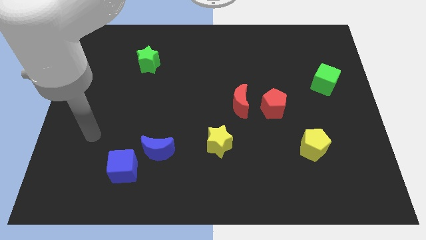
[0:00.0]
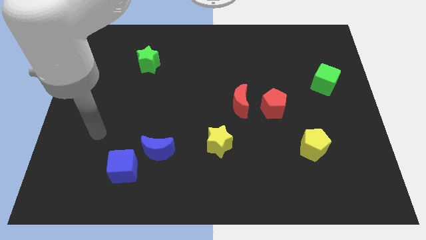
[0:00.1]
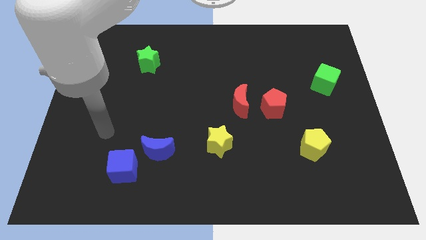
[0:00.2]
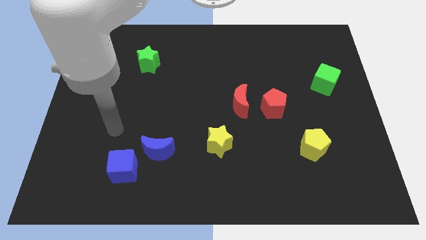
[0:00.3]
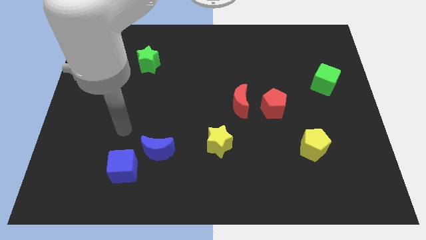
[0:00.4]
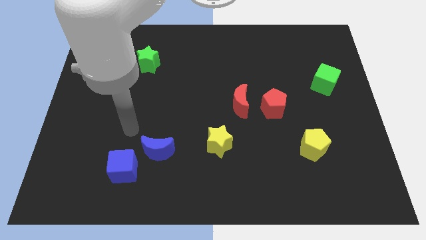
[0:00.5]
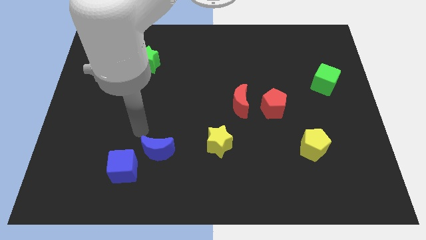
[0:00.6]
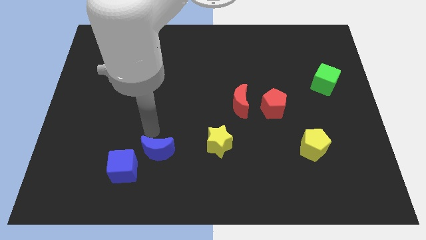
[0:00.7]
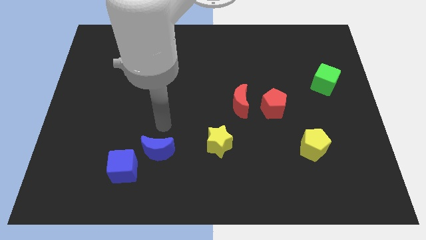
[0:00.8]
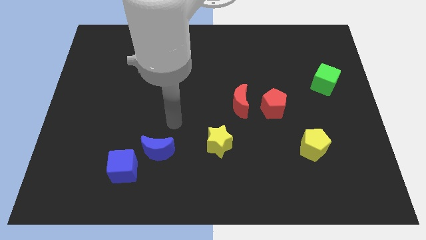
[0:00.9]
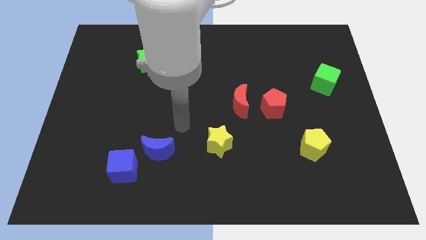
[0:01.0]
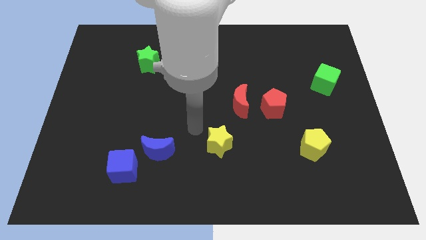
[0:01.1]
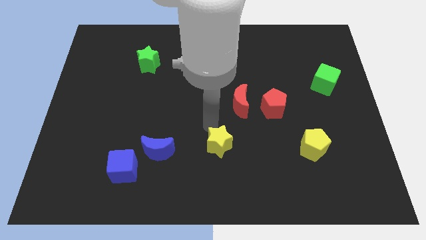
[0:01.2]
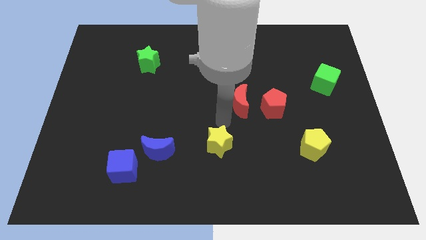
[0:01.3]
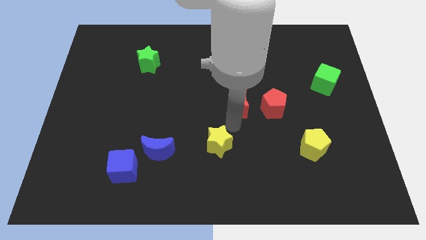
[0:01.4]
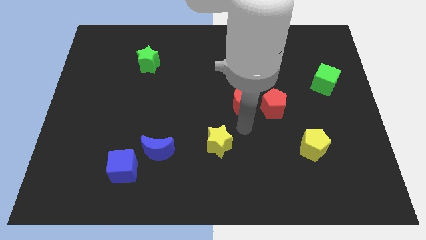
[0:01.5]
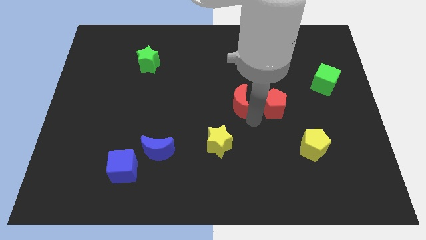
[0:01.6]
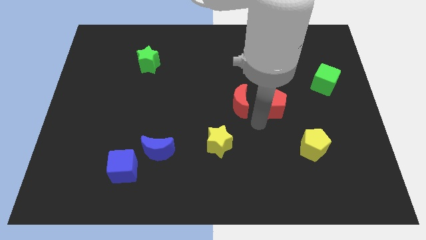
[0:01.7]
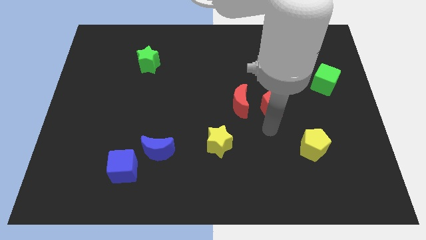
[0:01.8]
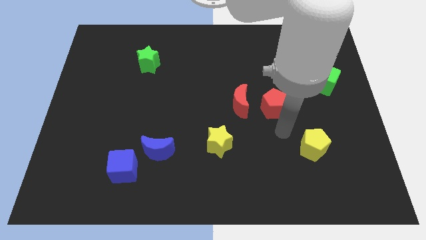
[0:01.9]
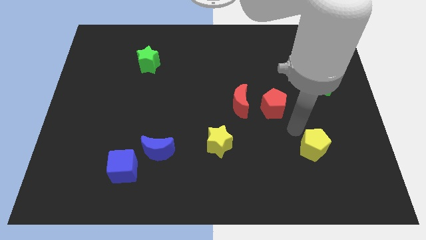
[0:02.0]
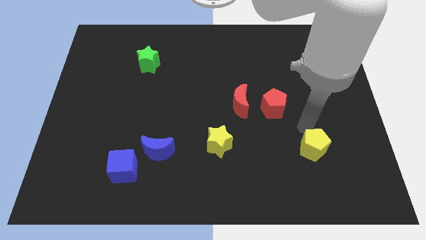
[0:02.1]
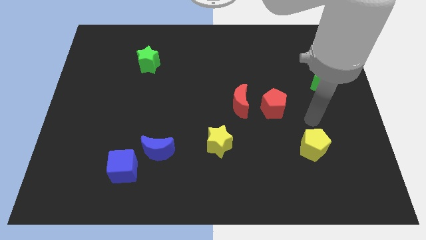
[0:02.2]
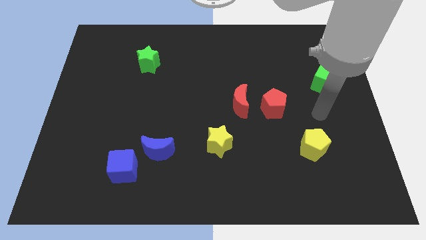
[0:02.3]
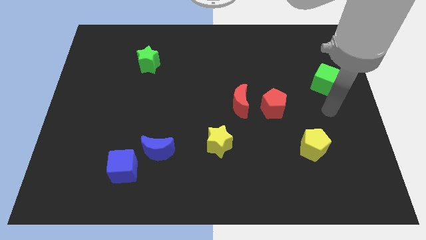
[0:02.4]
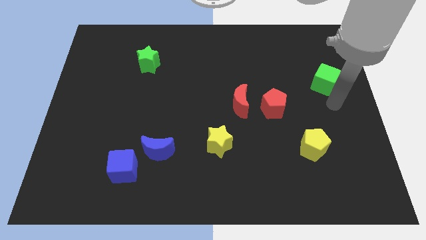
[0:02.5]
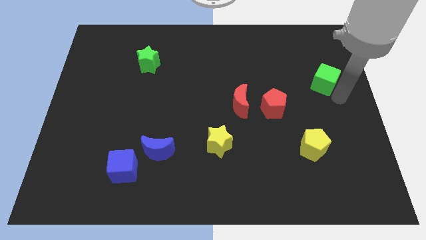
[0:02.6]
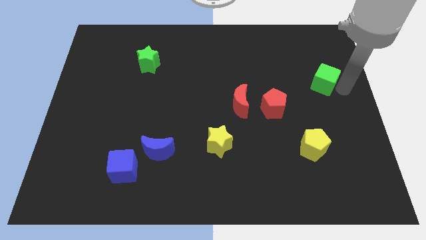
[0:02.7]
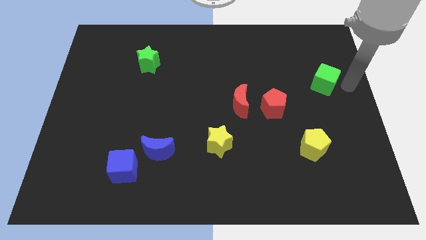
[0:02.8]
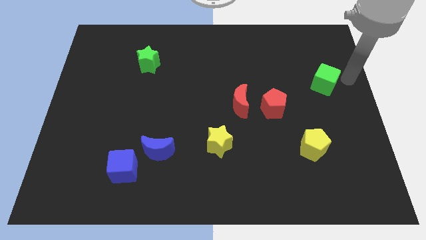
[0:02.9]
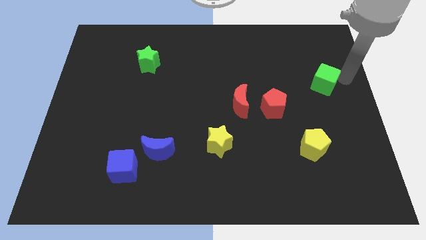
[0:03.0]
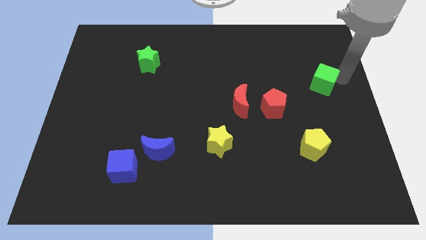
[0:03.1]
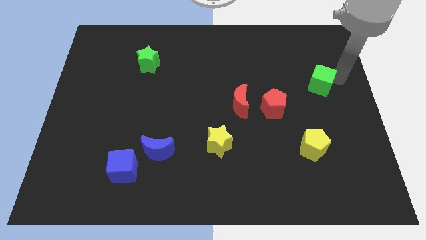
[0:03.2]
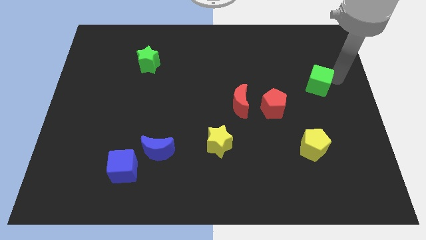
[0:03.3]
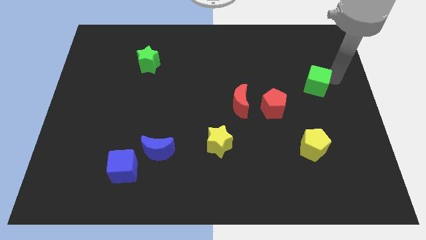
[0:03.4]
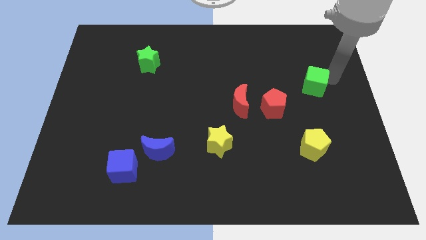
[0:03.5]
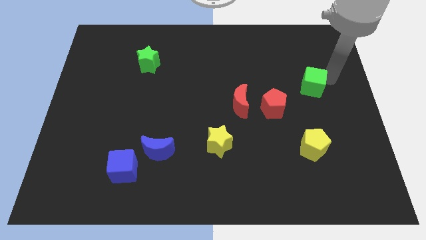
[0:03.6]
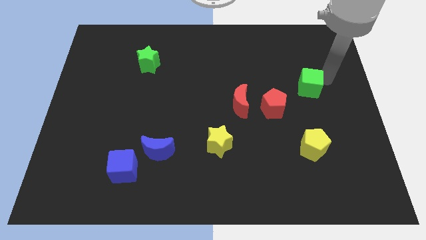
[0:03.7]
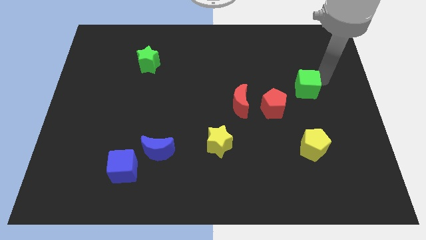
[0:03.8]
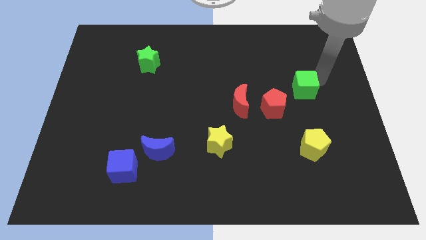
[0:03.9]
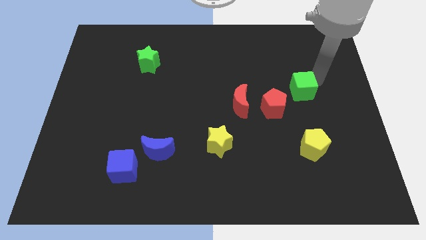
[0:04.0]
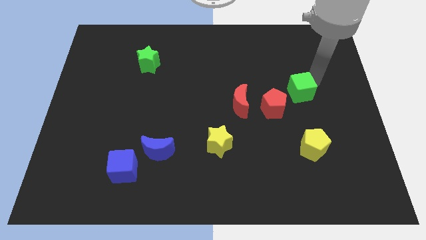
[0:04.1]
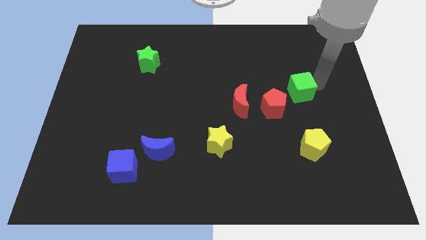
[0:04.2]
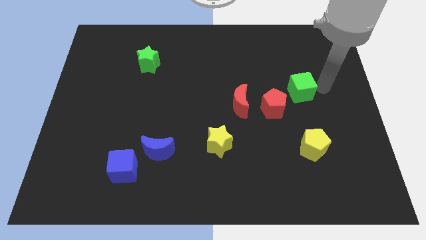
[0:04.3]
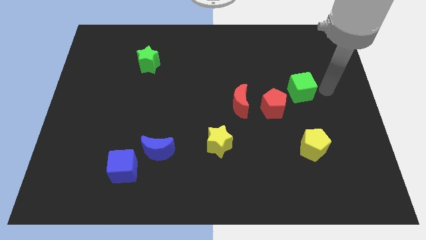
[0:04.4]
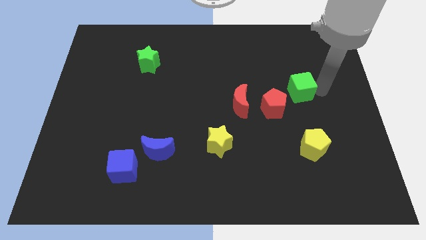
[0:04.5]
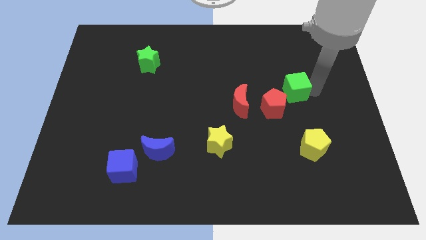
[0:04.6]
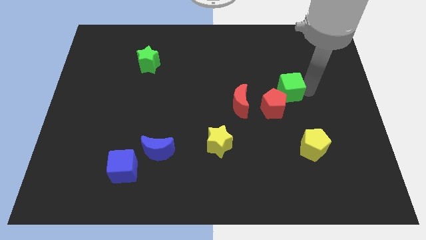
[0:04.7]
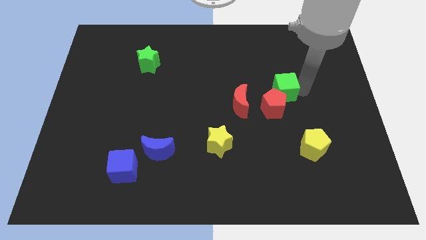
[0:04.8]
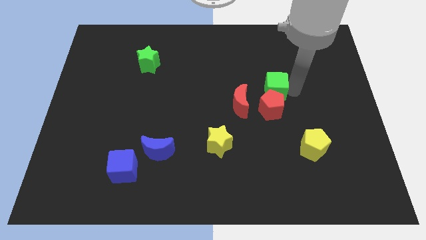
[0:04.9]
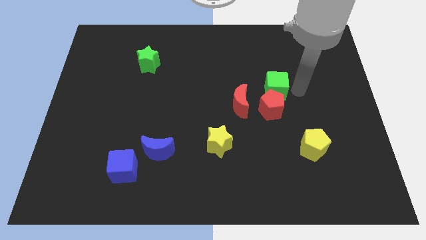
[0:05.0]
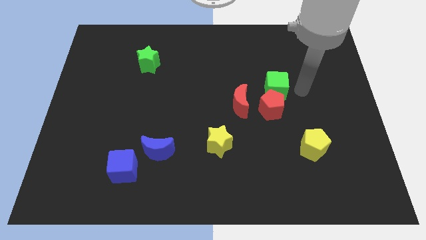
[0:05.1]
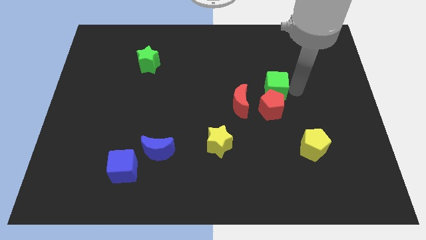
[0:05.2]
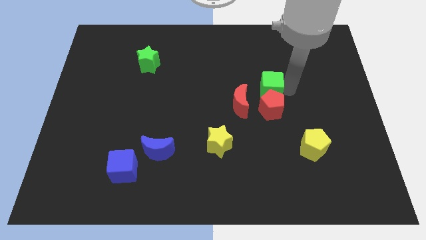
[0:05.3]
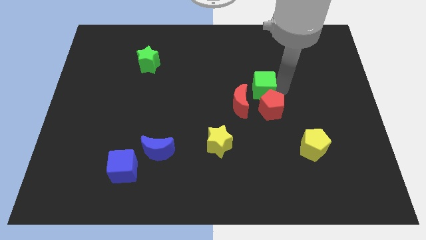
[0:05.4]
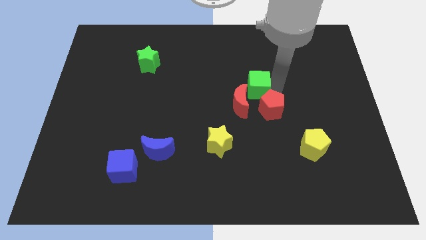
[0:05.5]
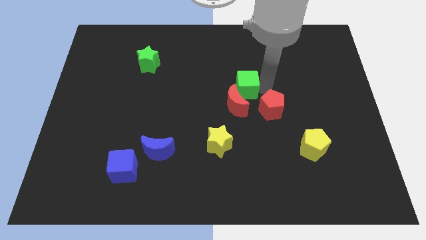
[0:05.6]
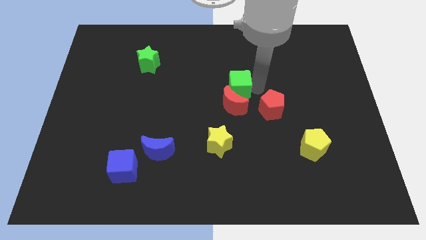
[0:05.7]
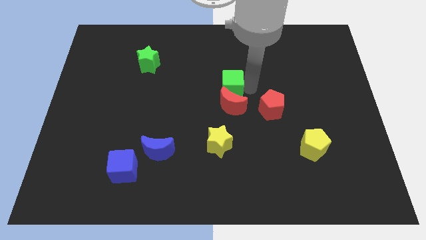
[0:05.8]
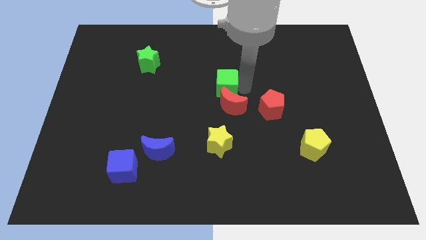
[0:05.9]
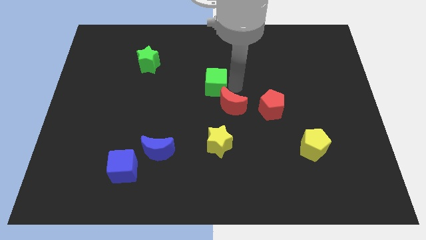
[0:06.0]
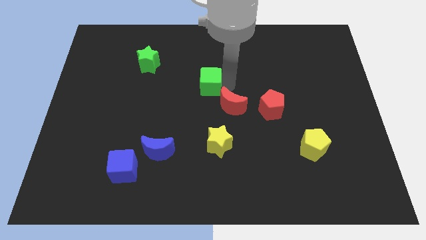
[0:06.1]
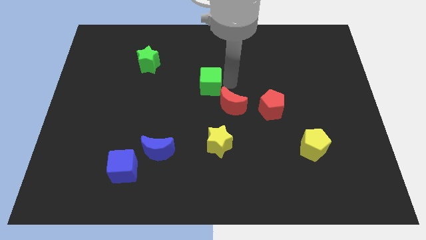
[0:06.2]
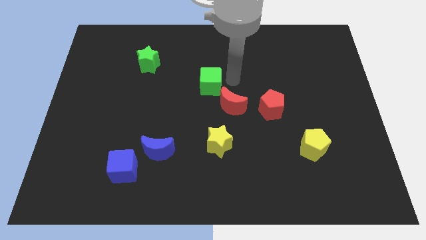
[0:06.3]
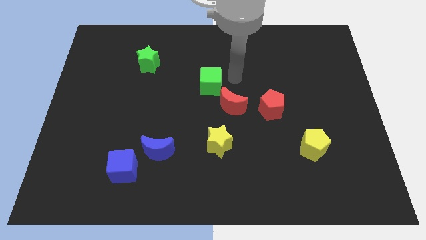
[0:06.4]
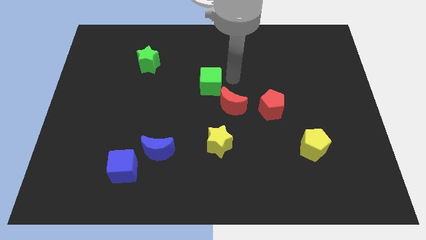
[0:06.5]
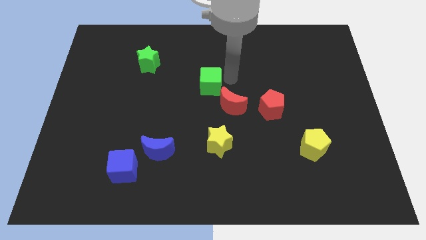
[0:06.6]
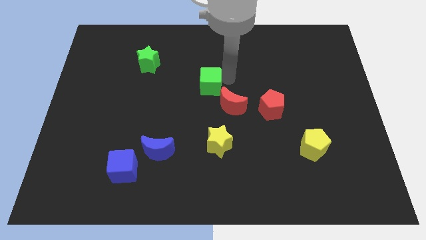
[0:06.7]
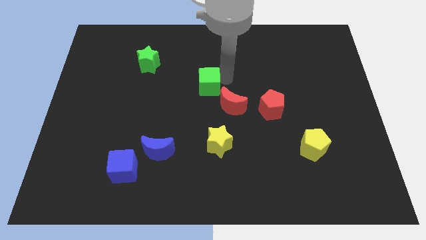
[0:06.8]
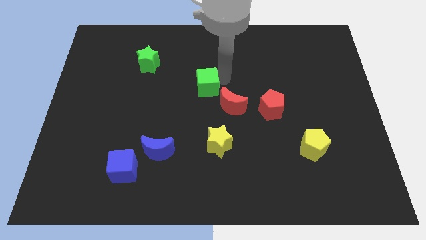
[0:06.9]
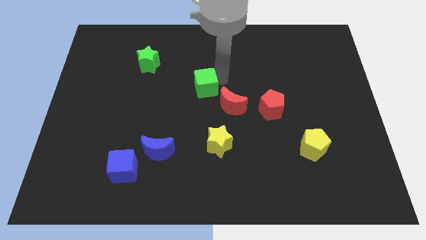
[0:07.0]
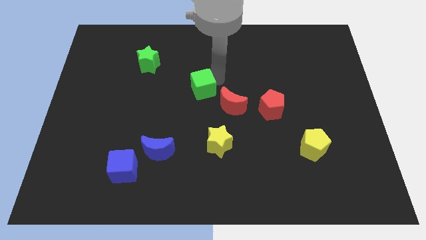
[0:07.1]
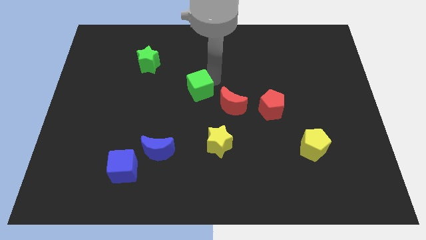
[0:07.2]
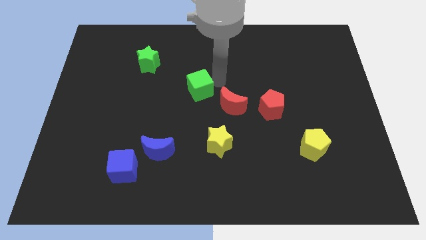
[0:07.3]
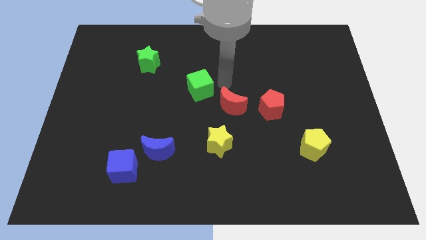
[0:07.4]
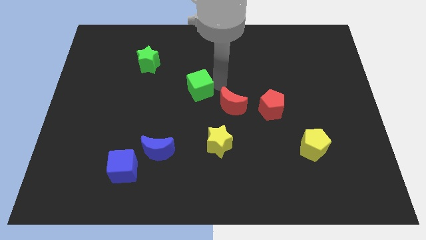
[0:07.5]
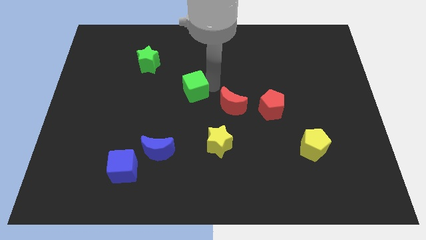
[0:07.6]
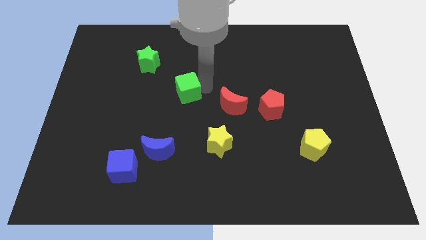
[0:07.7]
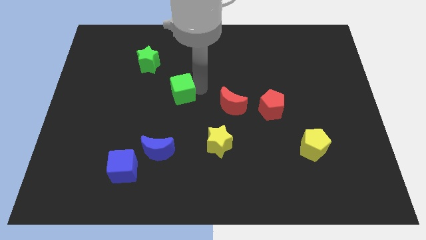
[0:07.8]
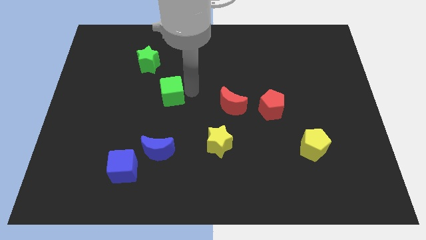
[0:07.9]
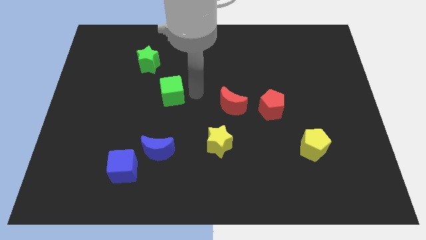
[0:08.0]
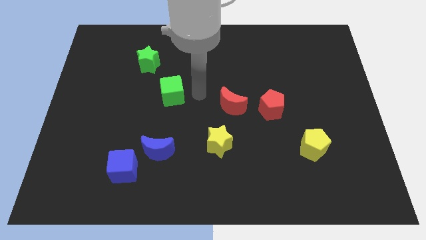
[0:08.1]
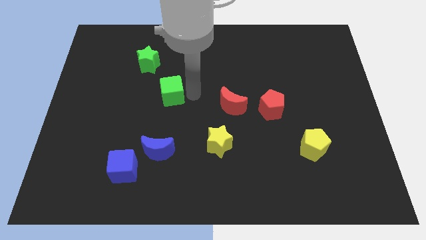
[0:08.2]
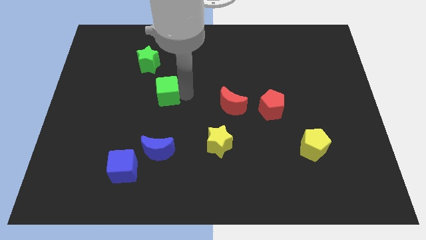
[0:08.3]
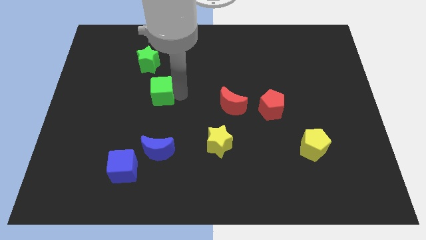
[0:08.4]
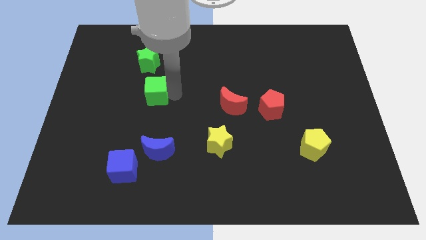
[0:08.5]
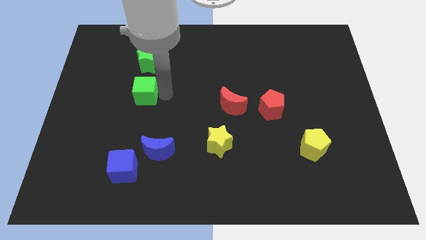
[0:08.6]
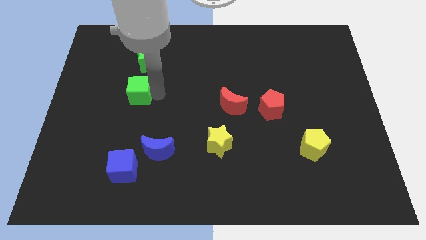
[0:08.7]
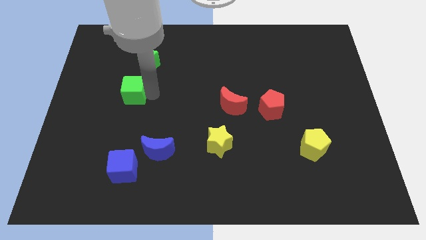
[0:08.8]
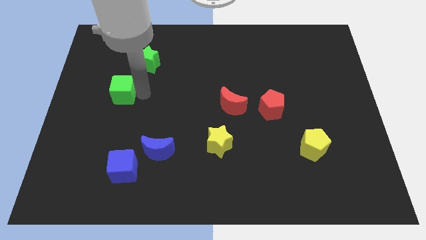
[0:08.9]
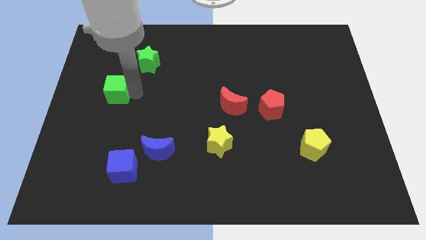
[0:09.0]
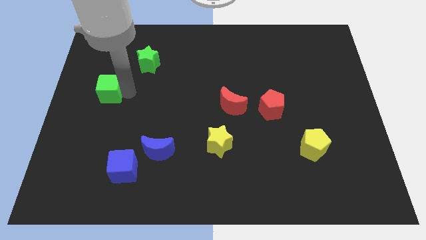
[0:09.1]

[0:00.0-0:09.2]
put the green cube to the left side of the board

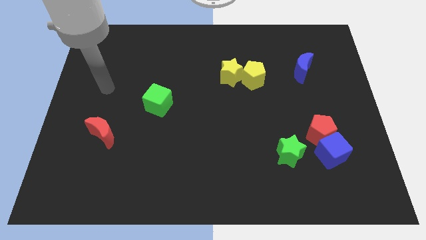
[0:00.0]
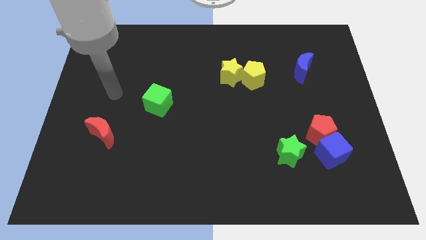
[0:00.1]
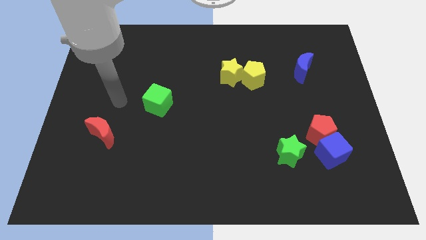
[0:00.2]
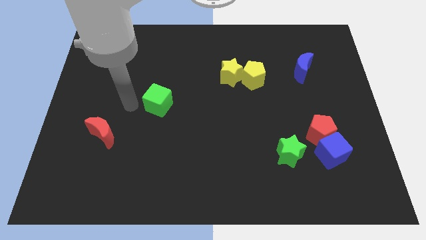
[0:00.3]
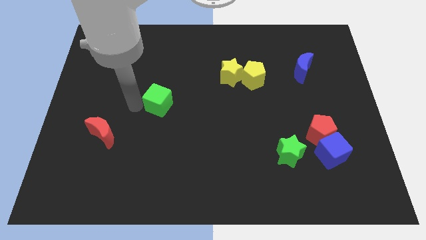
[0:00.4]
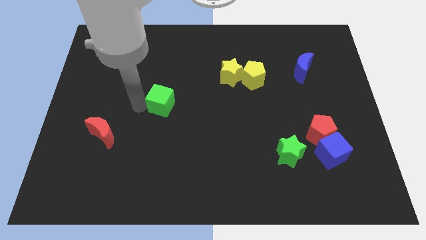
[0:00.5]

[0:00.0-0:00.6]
push the green cube to the center
